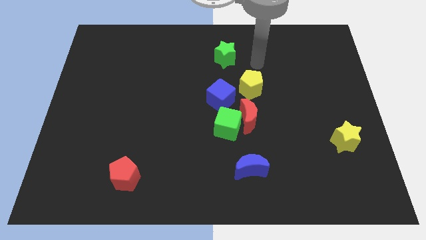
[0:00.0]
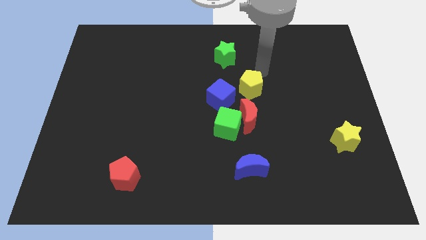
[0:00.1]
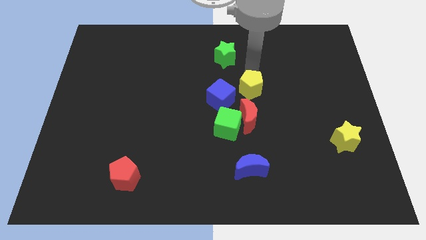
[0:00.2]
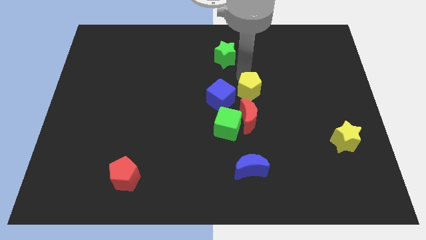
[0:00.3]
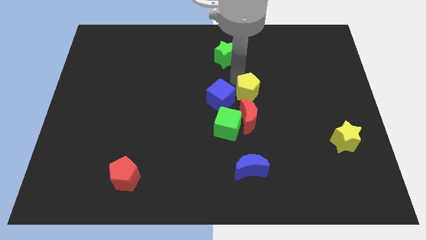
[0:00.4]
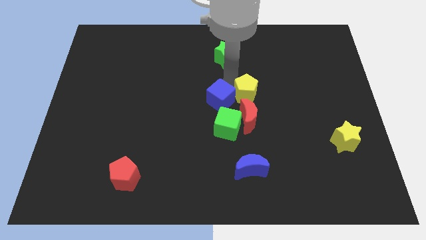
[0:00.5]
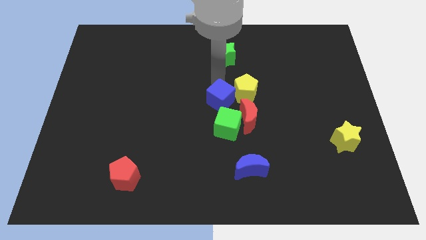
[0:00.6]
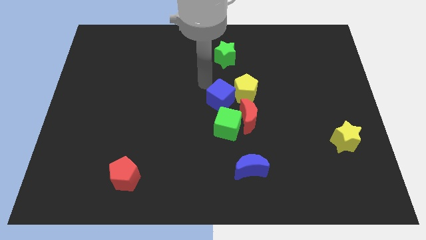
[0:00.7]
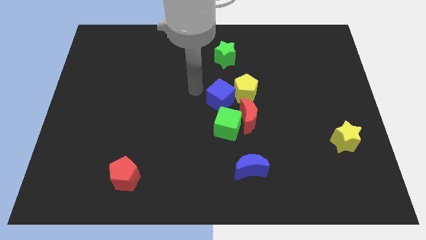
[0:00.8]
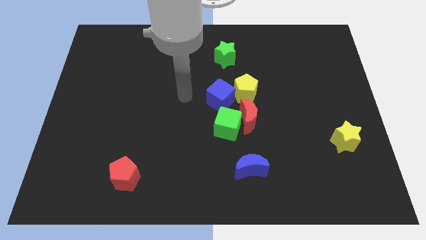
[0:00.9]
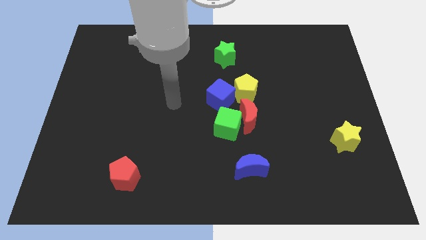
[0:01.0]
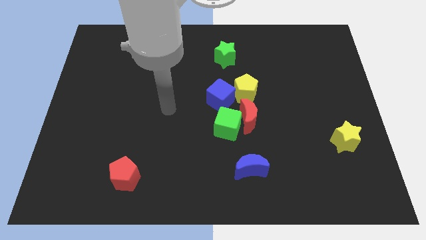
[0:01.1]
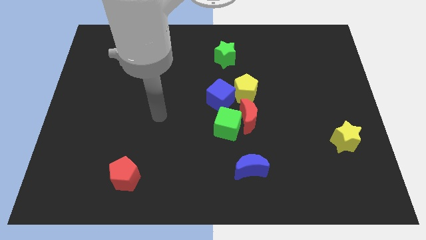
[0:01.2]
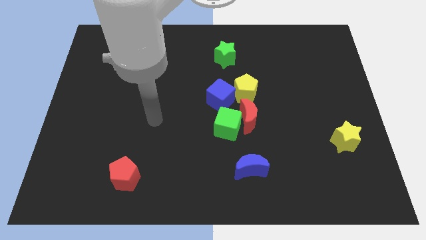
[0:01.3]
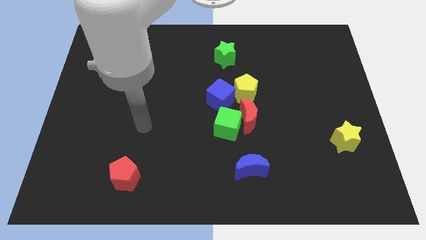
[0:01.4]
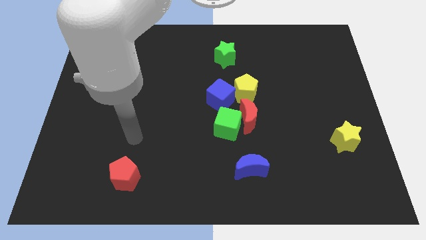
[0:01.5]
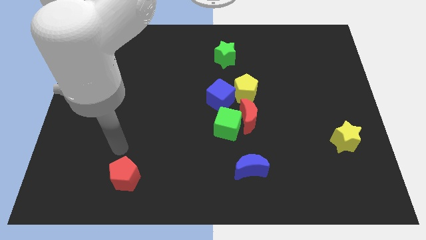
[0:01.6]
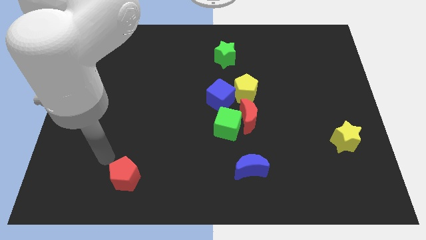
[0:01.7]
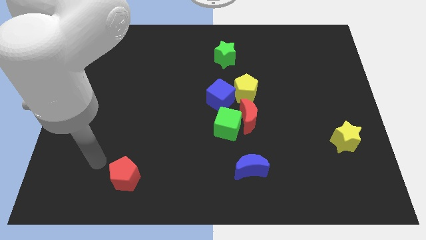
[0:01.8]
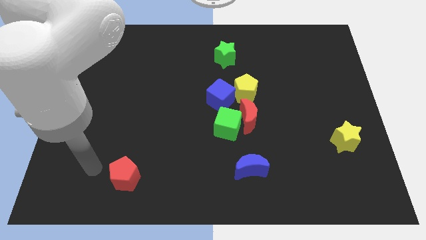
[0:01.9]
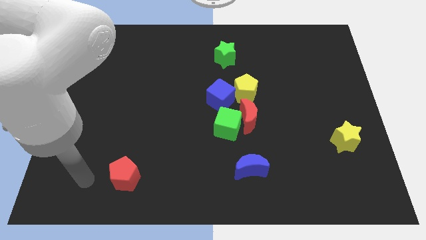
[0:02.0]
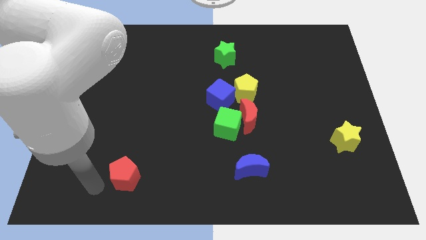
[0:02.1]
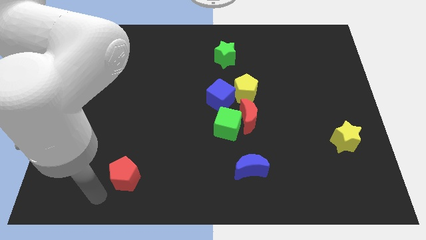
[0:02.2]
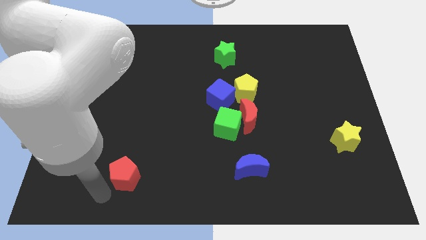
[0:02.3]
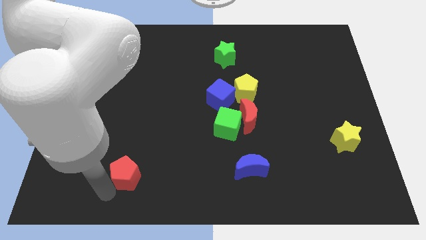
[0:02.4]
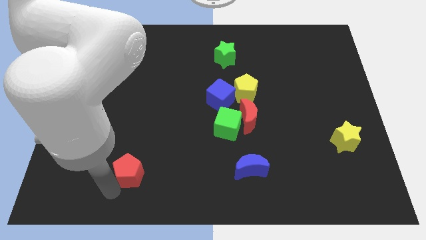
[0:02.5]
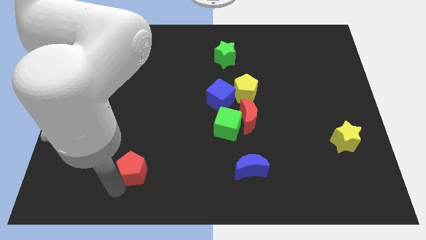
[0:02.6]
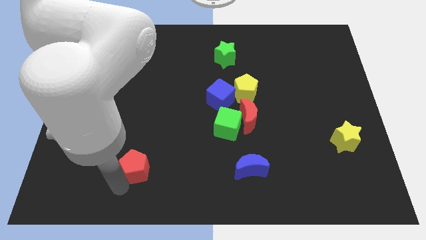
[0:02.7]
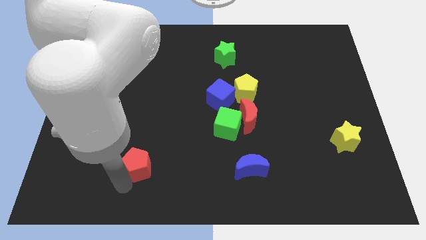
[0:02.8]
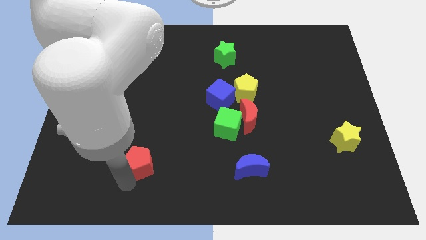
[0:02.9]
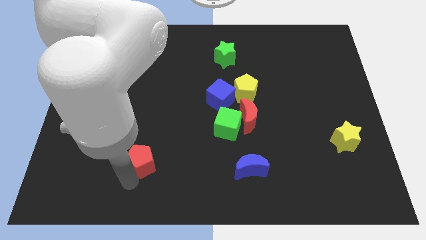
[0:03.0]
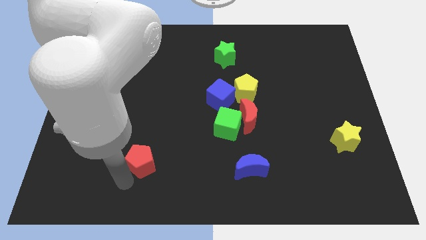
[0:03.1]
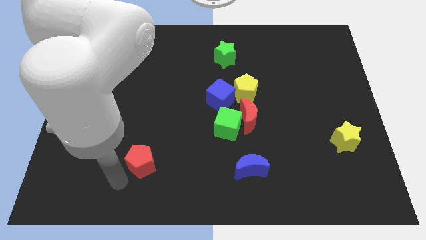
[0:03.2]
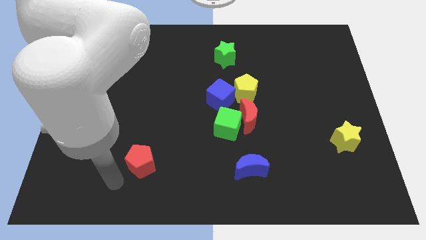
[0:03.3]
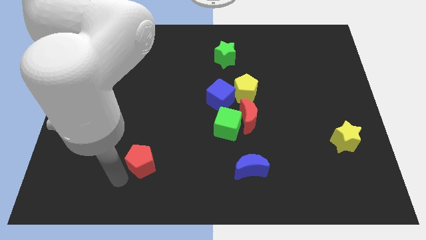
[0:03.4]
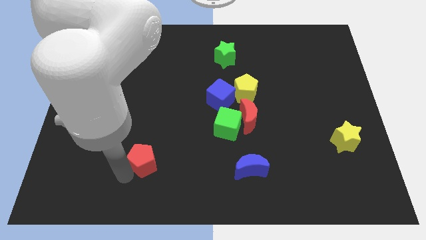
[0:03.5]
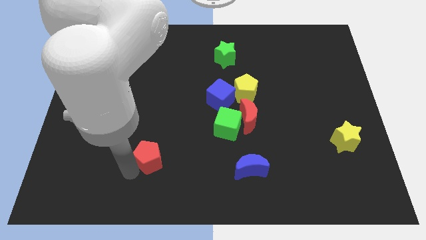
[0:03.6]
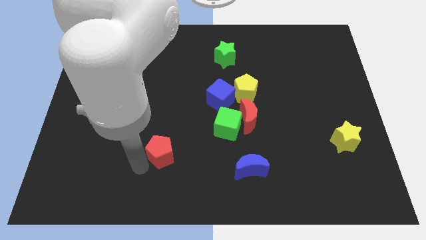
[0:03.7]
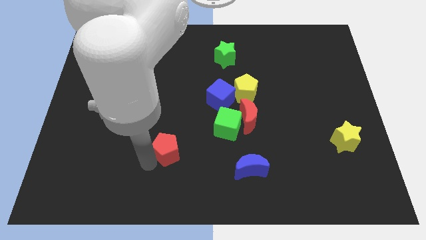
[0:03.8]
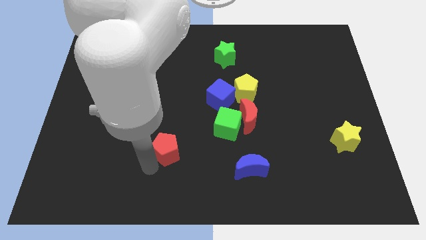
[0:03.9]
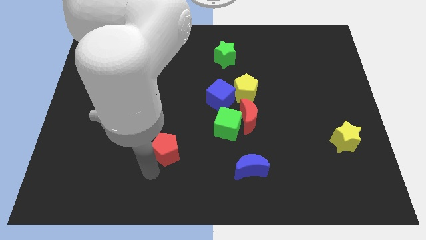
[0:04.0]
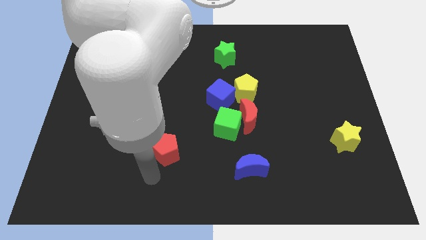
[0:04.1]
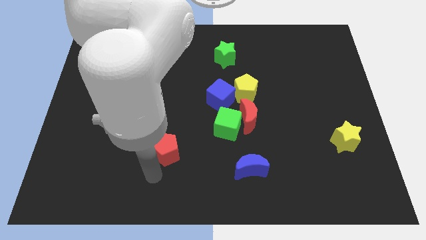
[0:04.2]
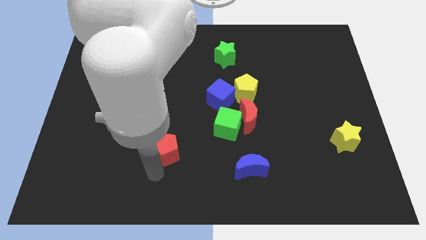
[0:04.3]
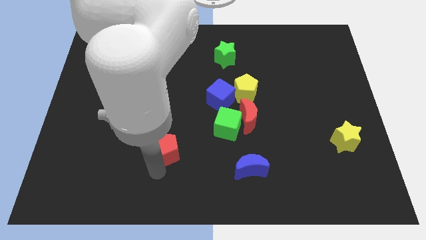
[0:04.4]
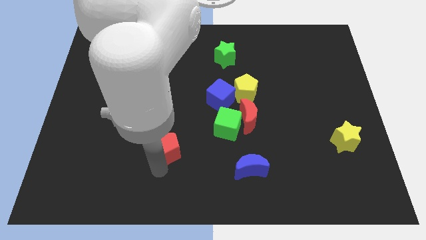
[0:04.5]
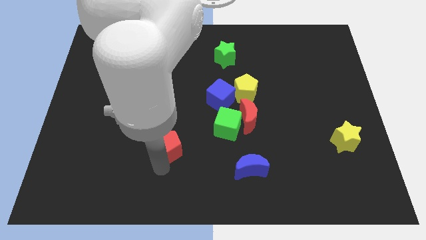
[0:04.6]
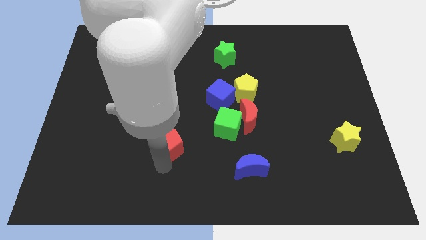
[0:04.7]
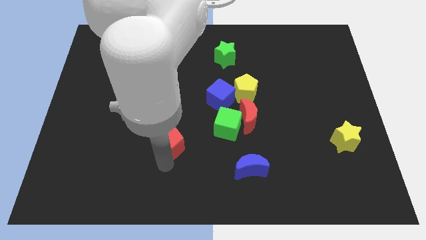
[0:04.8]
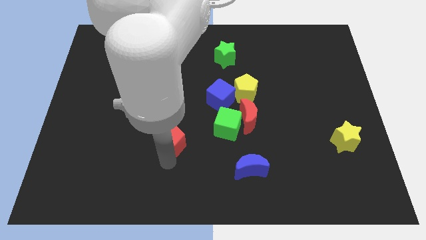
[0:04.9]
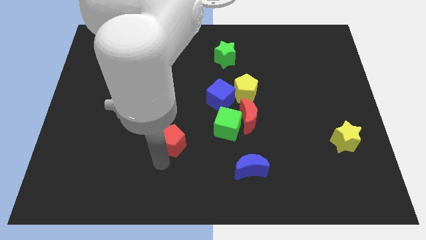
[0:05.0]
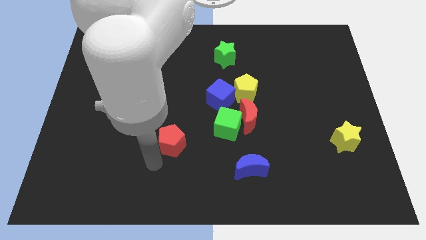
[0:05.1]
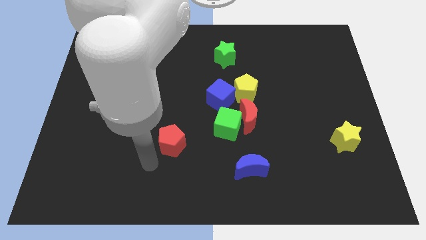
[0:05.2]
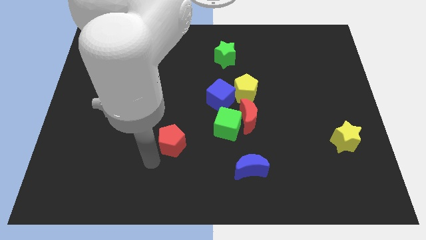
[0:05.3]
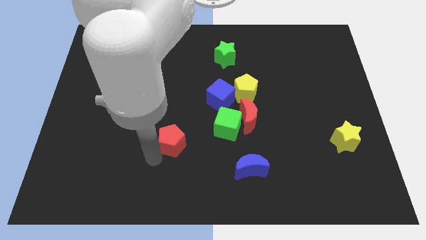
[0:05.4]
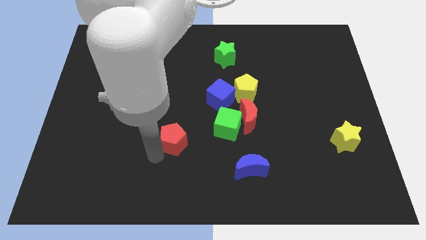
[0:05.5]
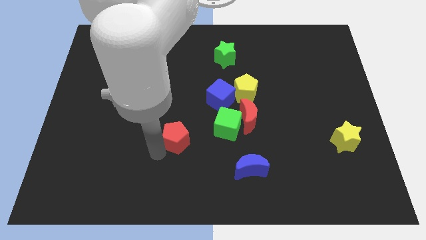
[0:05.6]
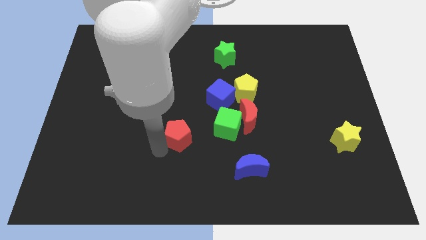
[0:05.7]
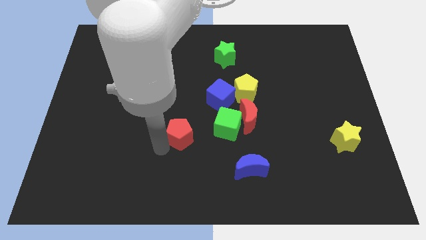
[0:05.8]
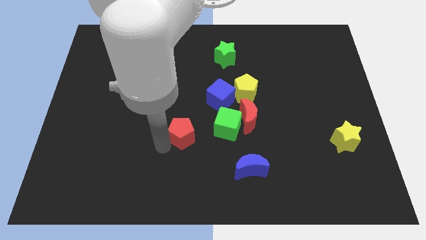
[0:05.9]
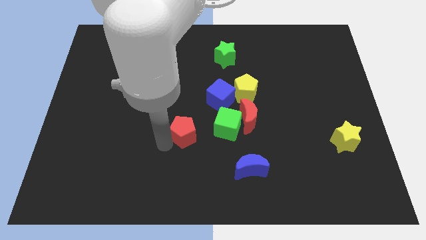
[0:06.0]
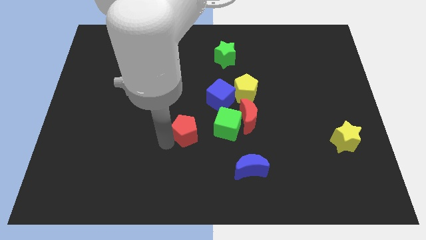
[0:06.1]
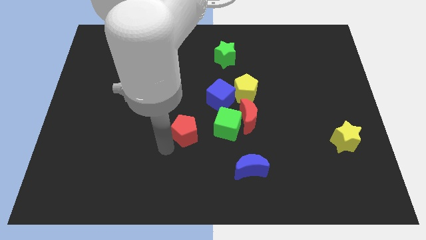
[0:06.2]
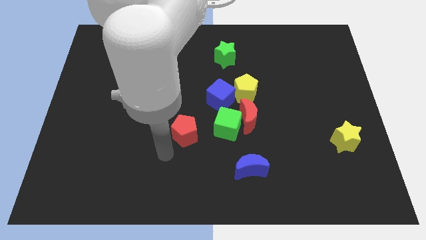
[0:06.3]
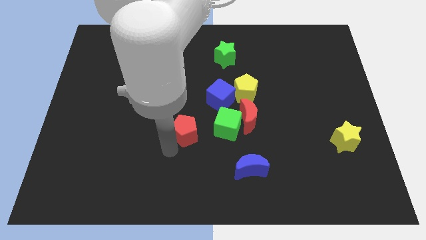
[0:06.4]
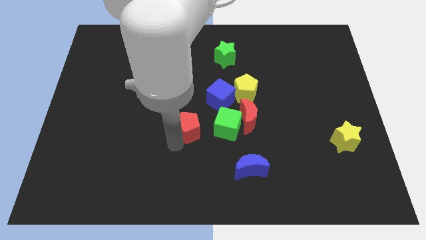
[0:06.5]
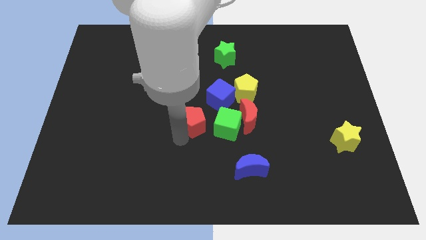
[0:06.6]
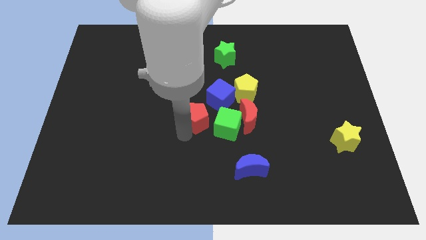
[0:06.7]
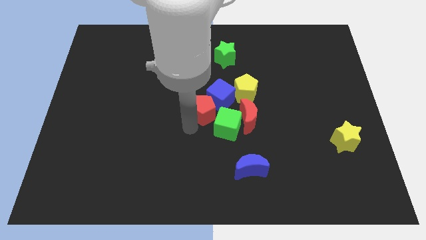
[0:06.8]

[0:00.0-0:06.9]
move the red pentagon to the blue cube

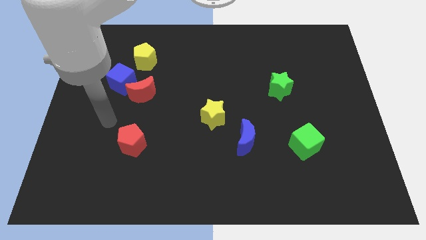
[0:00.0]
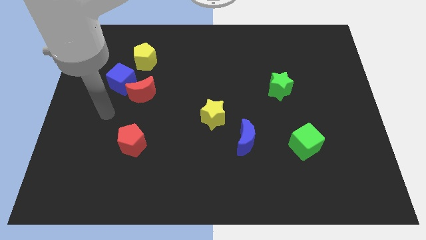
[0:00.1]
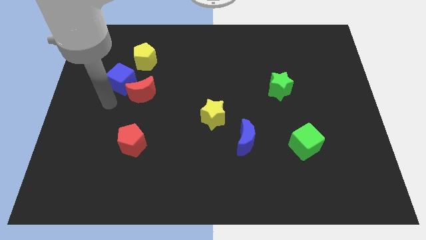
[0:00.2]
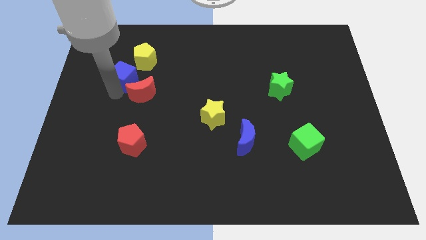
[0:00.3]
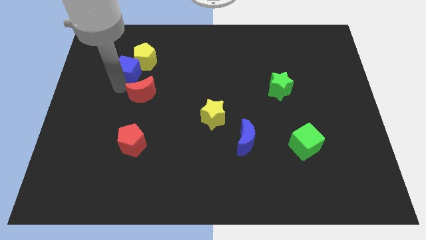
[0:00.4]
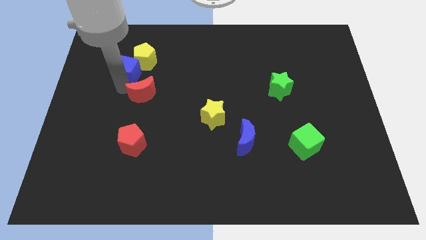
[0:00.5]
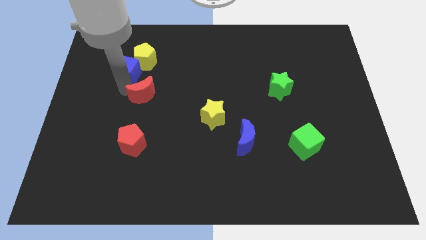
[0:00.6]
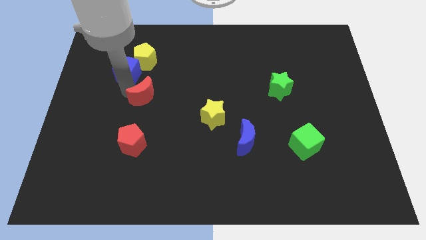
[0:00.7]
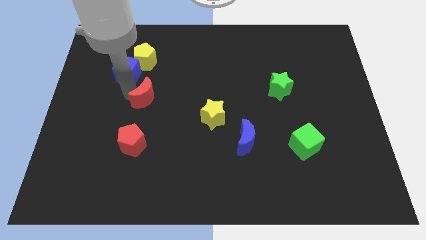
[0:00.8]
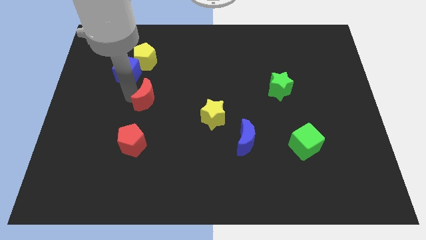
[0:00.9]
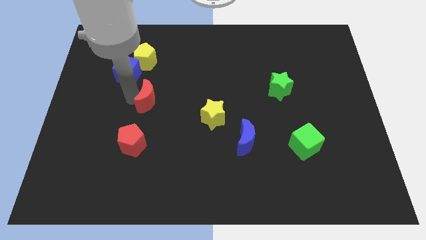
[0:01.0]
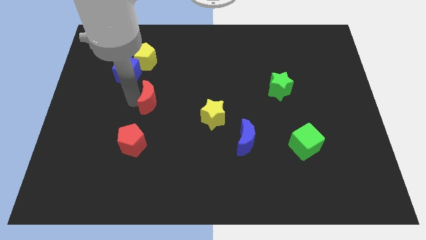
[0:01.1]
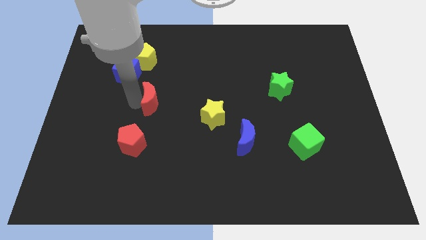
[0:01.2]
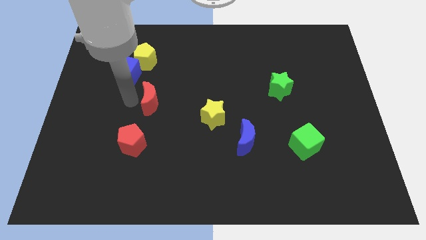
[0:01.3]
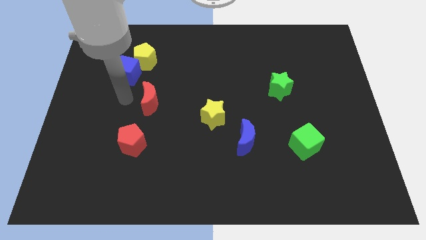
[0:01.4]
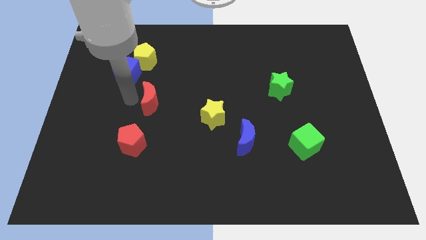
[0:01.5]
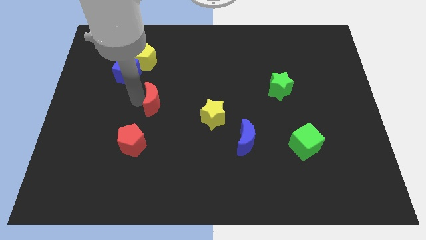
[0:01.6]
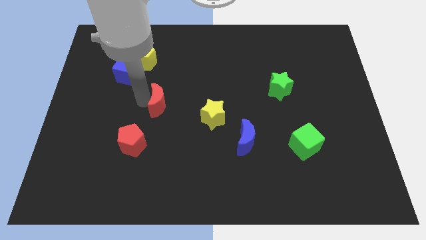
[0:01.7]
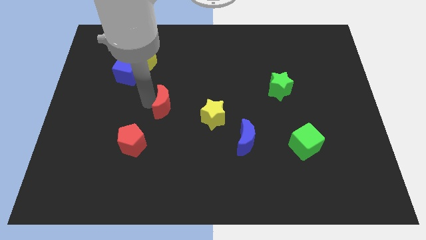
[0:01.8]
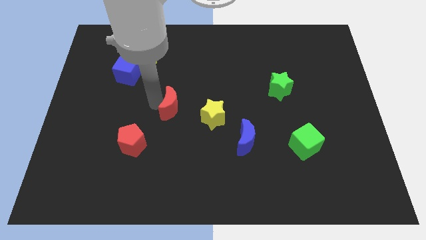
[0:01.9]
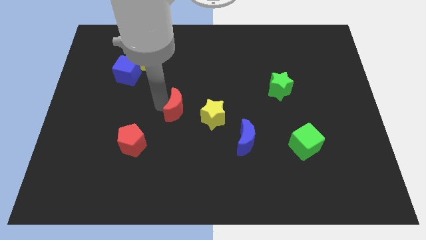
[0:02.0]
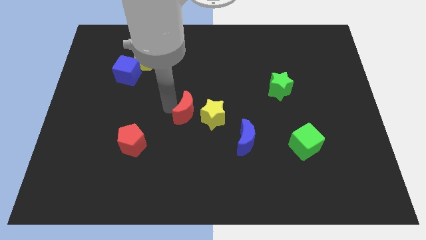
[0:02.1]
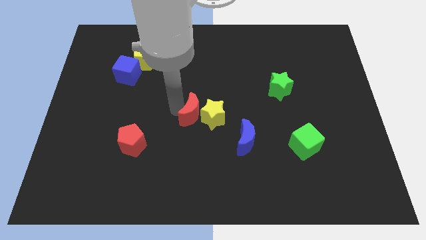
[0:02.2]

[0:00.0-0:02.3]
move the red moon close to the yellow star
